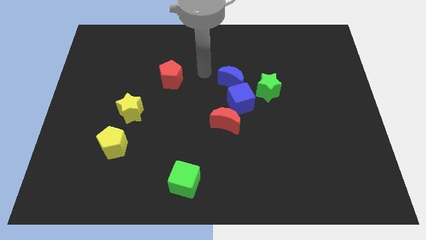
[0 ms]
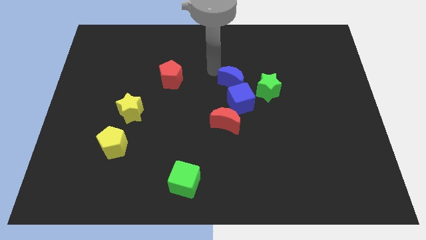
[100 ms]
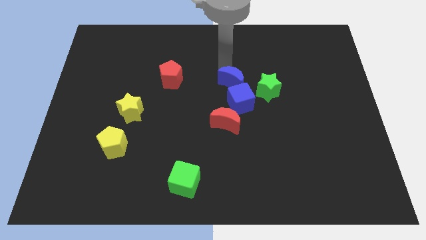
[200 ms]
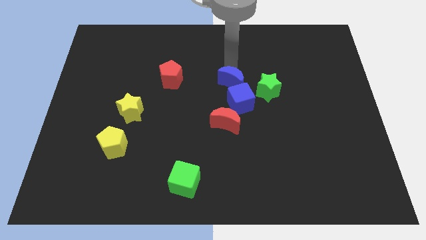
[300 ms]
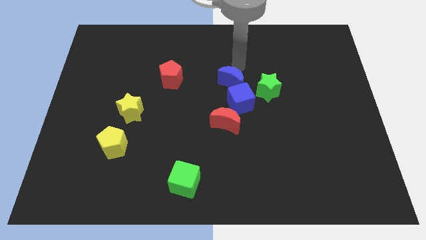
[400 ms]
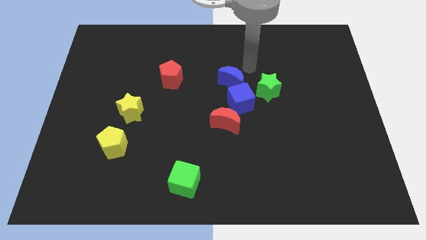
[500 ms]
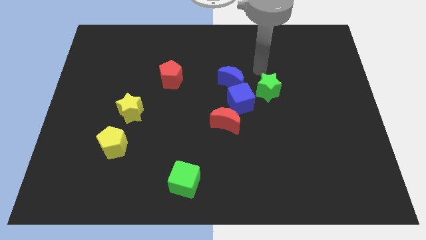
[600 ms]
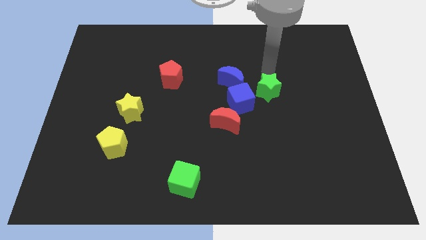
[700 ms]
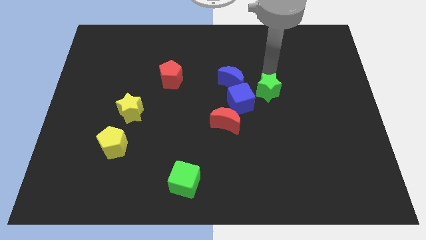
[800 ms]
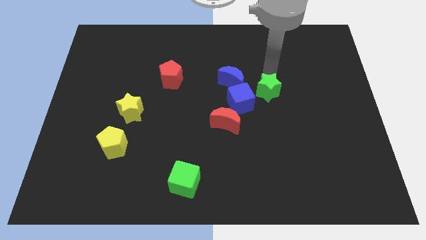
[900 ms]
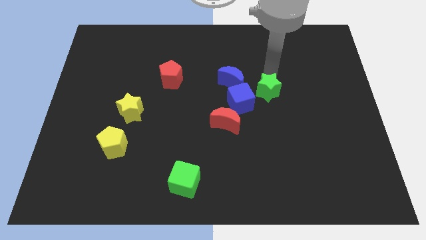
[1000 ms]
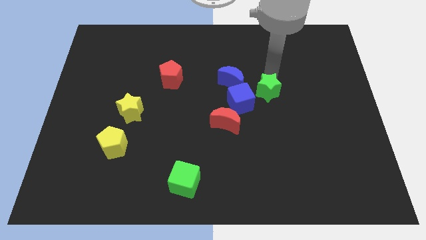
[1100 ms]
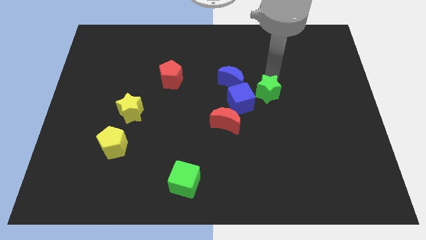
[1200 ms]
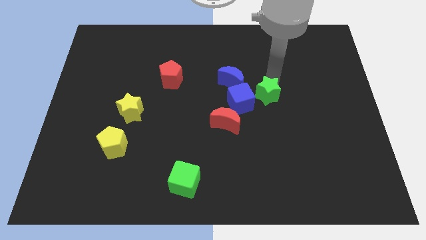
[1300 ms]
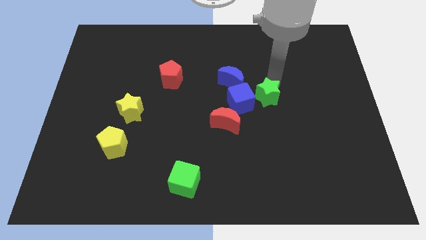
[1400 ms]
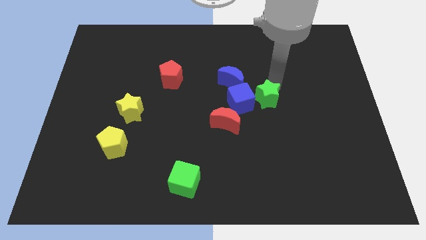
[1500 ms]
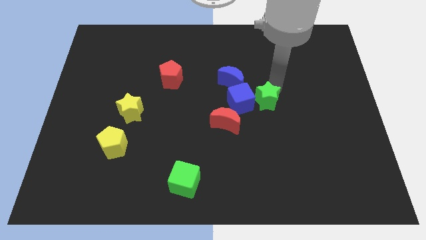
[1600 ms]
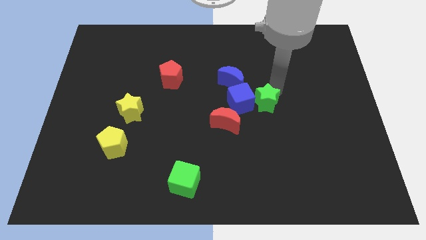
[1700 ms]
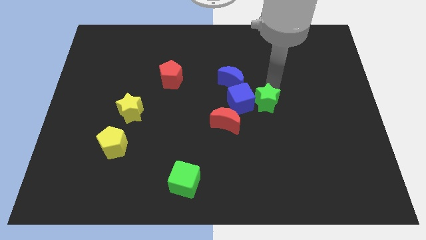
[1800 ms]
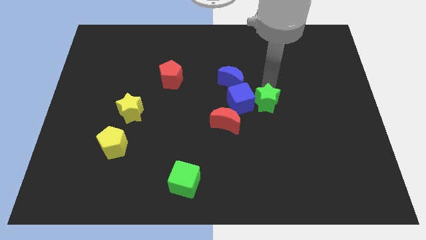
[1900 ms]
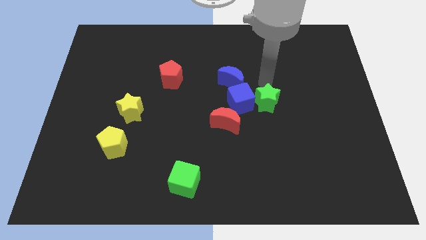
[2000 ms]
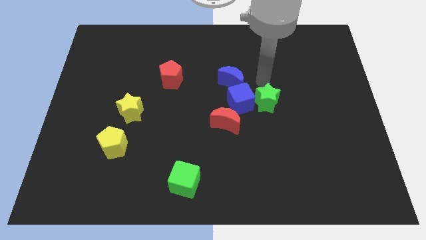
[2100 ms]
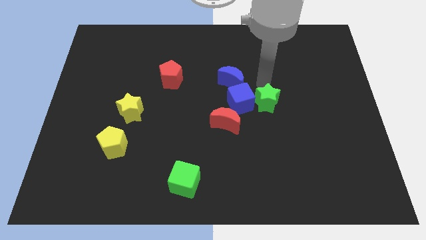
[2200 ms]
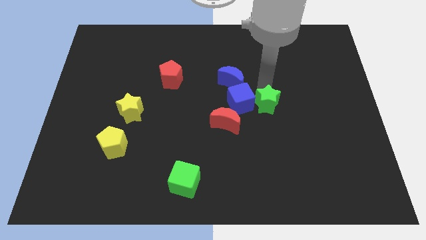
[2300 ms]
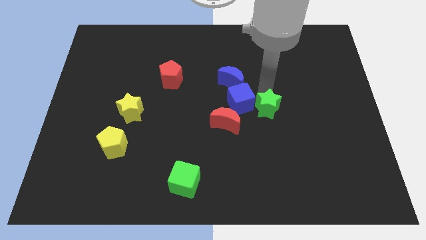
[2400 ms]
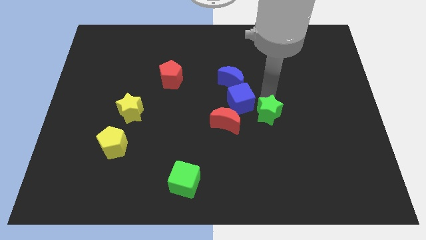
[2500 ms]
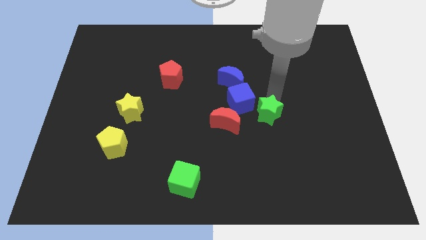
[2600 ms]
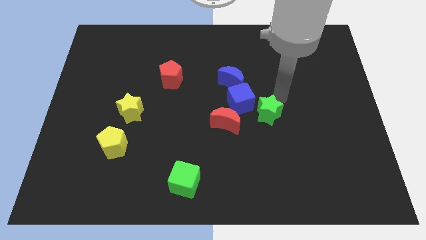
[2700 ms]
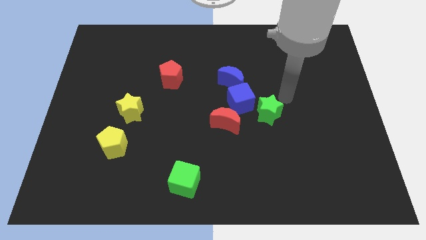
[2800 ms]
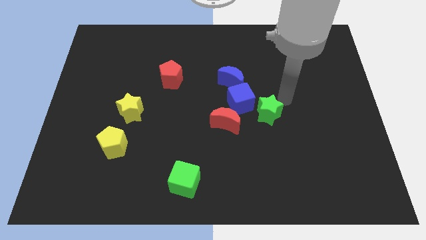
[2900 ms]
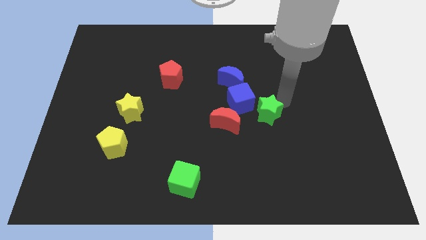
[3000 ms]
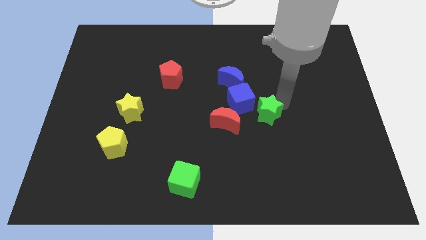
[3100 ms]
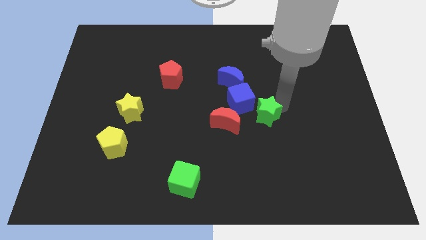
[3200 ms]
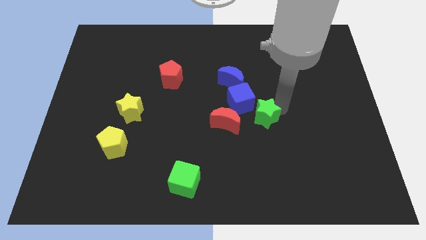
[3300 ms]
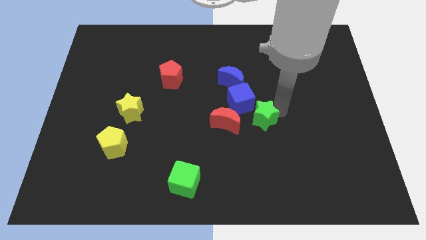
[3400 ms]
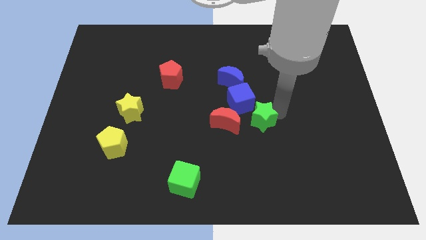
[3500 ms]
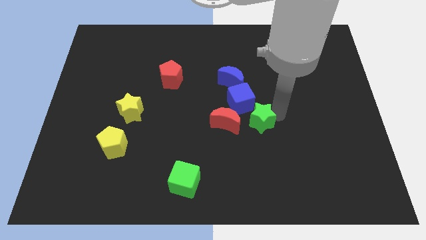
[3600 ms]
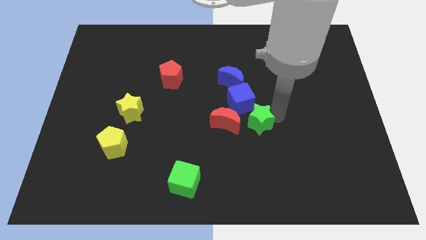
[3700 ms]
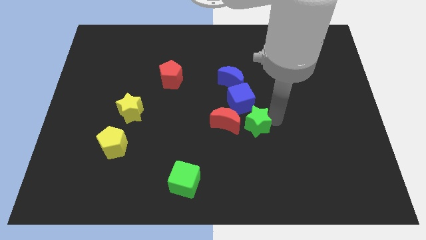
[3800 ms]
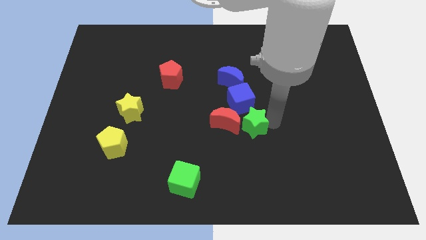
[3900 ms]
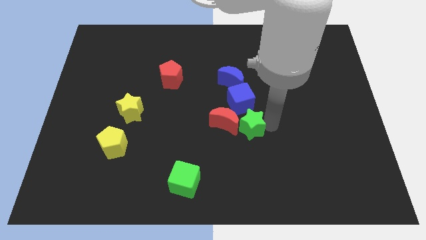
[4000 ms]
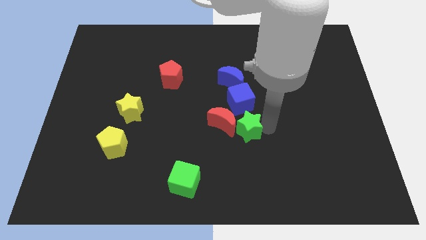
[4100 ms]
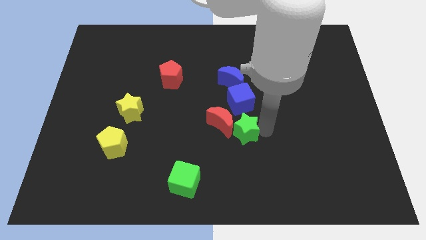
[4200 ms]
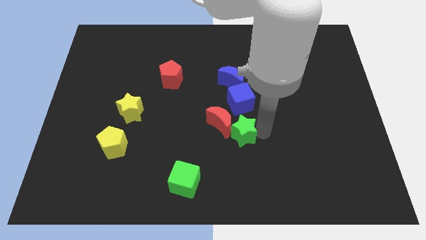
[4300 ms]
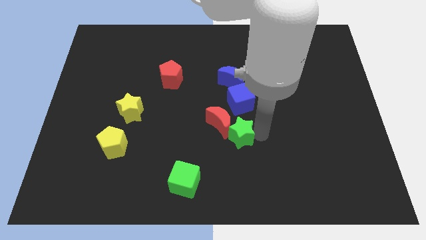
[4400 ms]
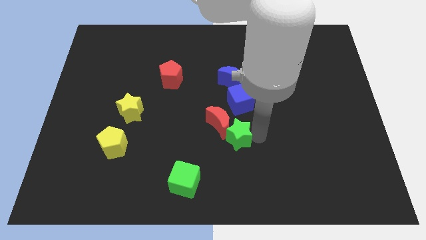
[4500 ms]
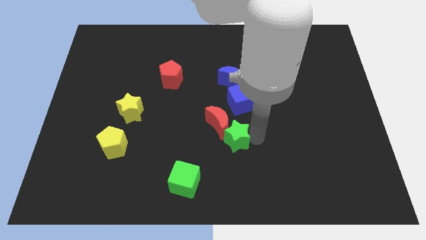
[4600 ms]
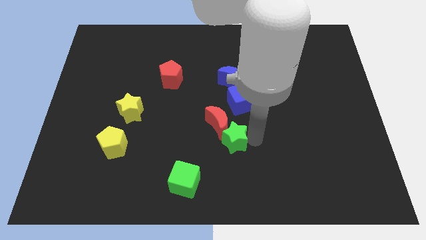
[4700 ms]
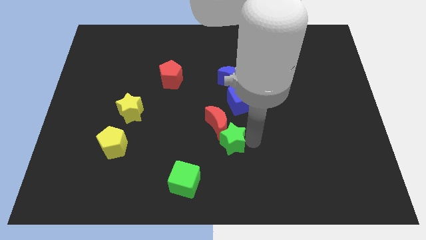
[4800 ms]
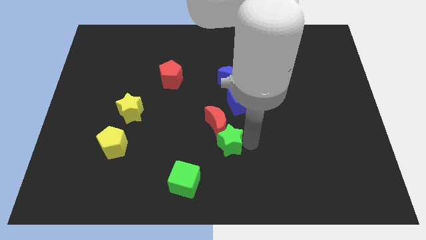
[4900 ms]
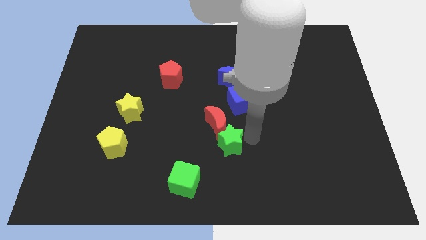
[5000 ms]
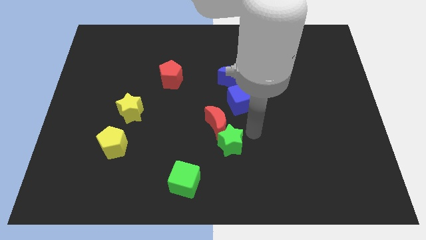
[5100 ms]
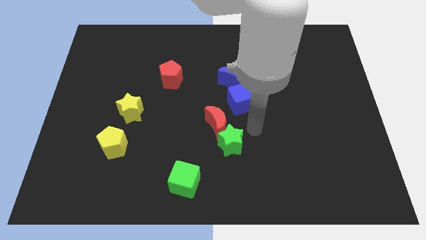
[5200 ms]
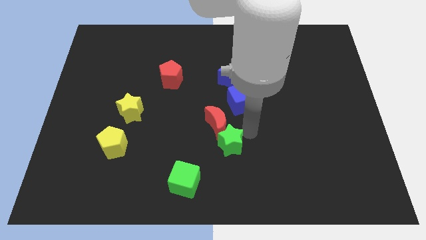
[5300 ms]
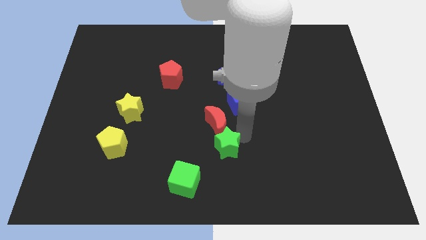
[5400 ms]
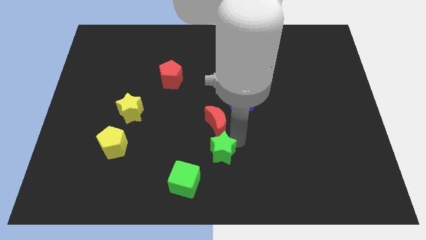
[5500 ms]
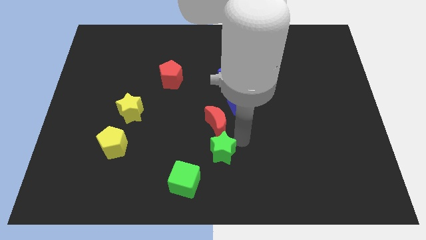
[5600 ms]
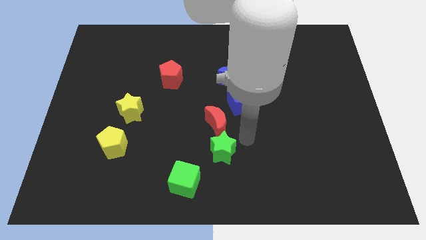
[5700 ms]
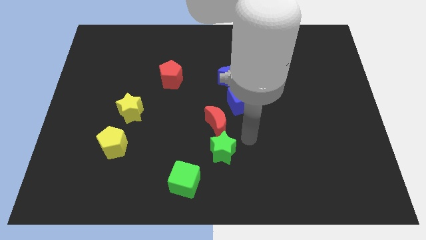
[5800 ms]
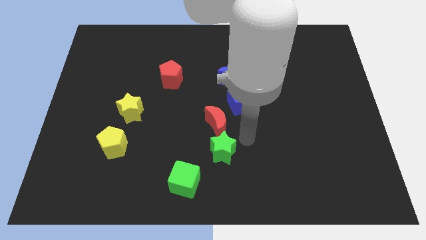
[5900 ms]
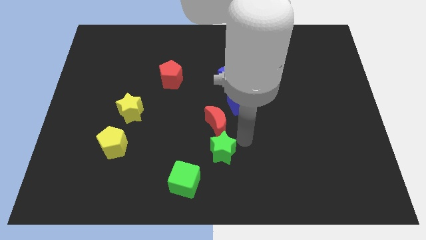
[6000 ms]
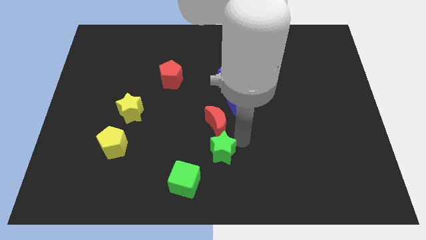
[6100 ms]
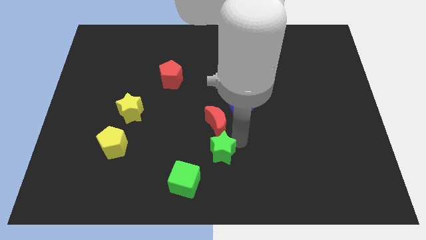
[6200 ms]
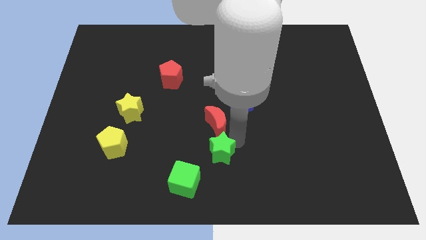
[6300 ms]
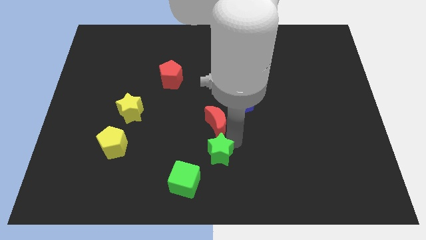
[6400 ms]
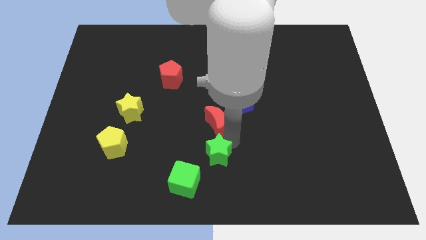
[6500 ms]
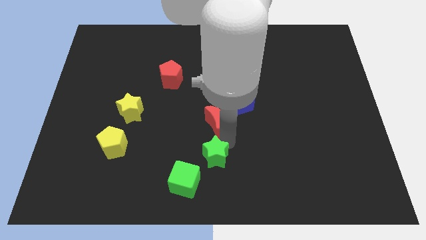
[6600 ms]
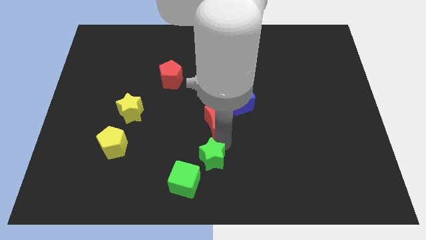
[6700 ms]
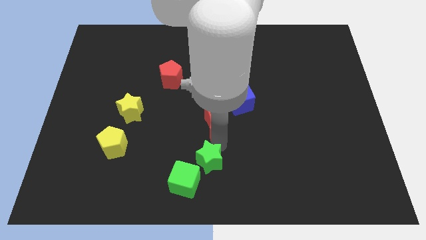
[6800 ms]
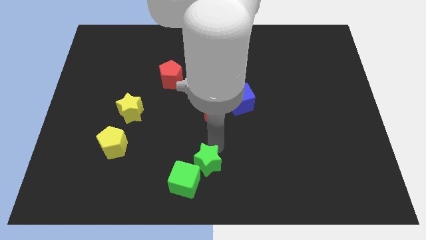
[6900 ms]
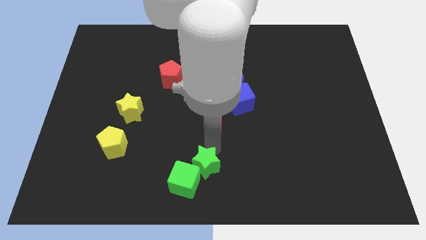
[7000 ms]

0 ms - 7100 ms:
push the green star next to the green cube

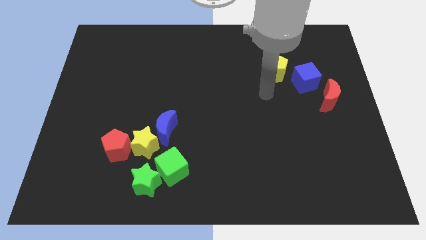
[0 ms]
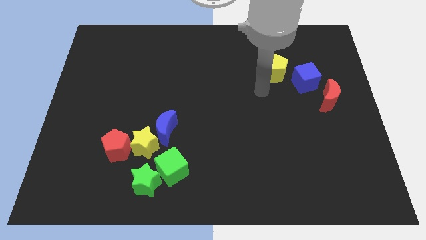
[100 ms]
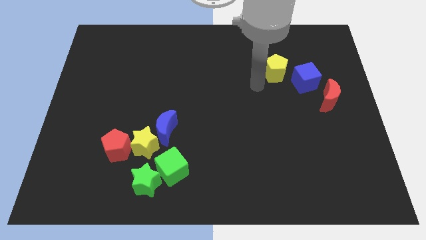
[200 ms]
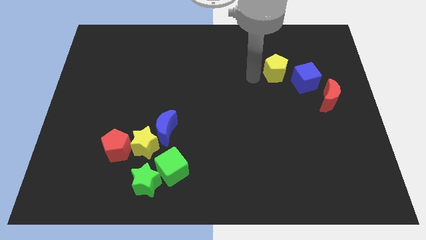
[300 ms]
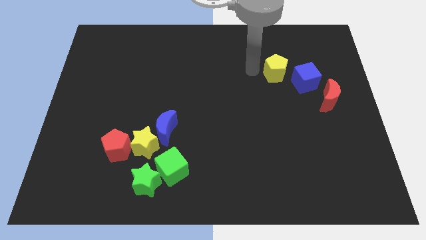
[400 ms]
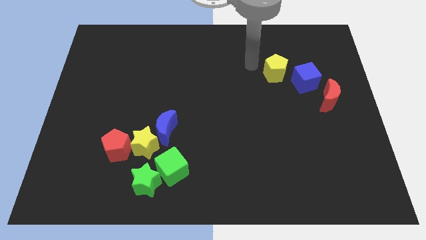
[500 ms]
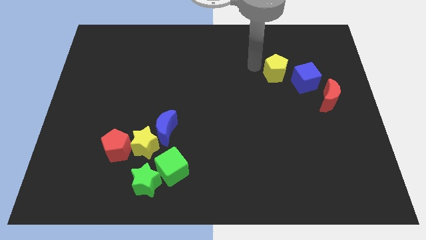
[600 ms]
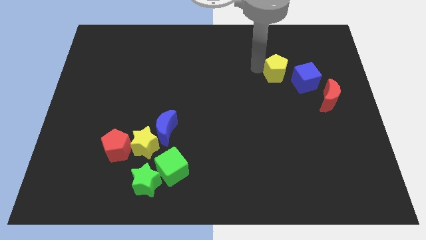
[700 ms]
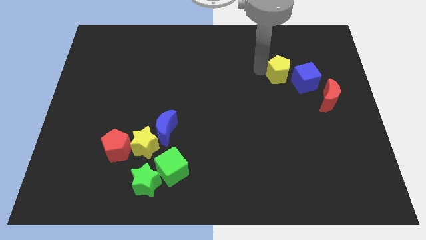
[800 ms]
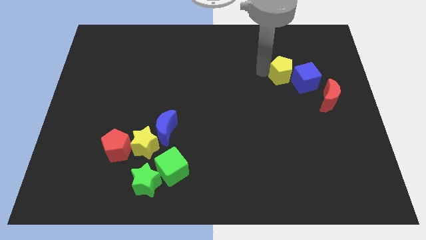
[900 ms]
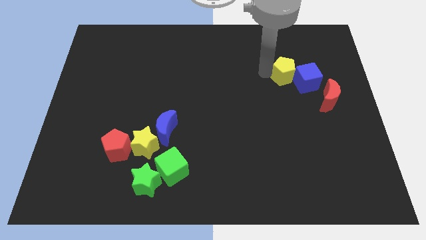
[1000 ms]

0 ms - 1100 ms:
move the yellow pentagon towards the blue cube
